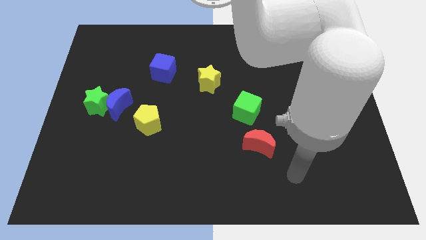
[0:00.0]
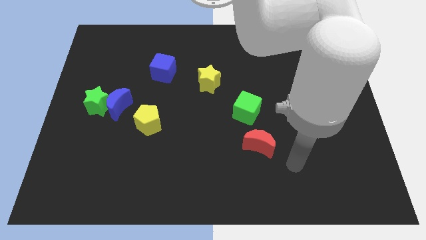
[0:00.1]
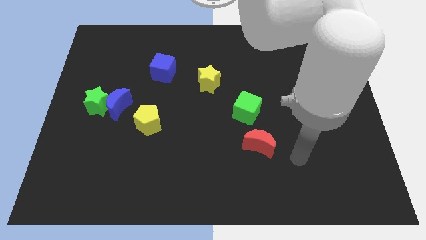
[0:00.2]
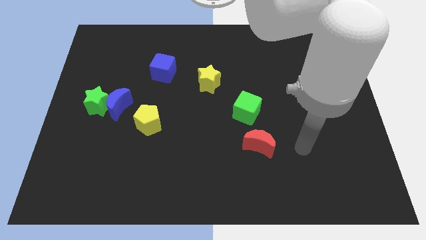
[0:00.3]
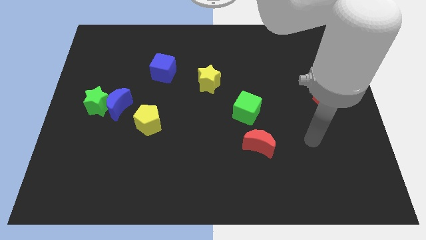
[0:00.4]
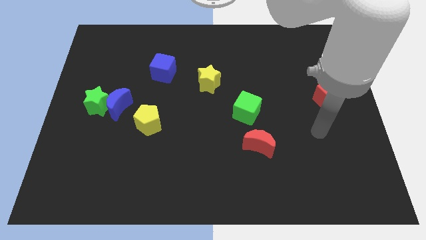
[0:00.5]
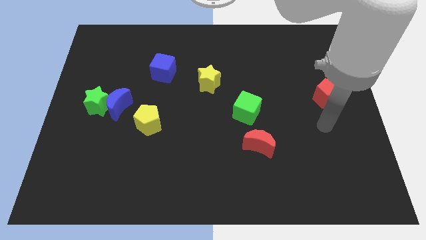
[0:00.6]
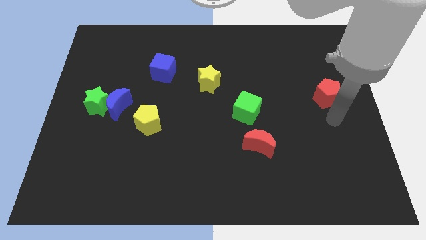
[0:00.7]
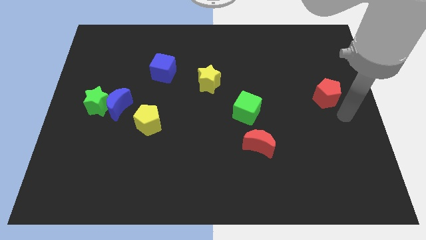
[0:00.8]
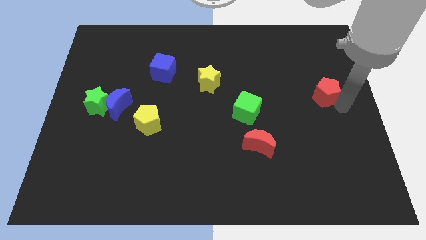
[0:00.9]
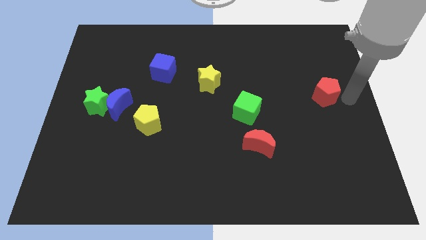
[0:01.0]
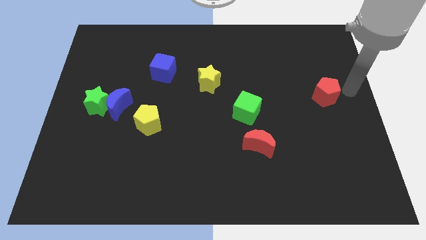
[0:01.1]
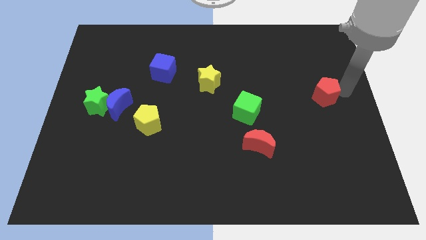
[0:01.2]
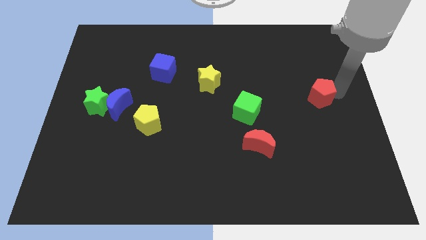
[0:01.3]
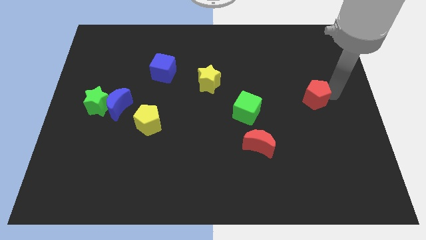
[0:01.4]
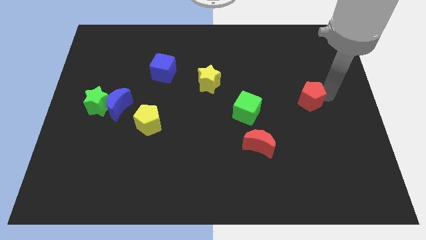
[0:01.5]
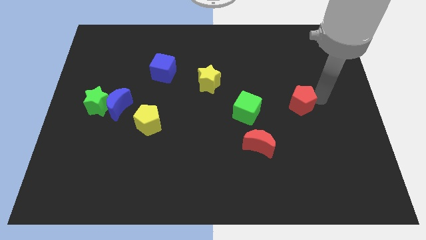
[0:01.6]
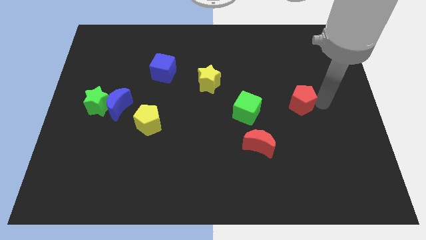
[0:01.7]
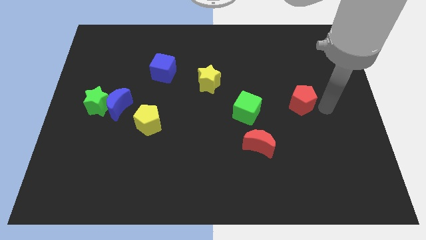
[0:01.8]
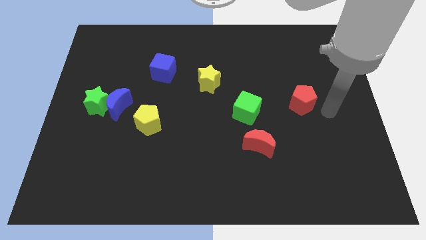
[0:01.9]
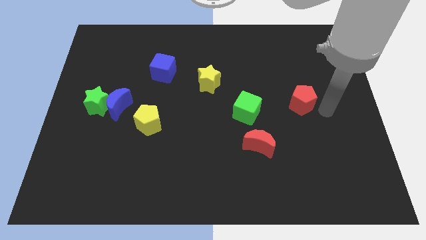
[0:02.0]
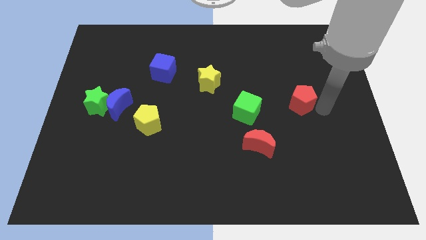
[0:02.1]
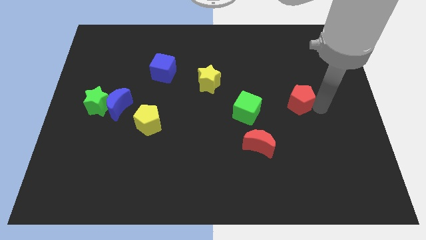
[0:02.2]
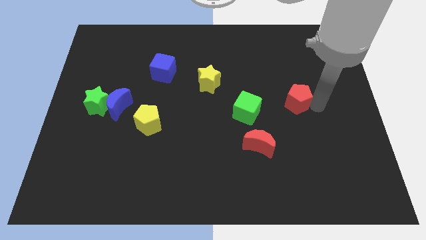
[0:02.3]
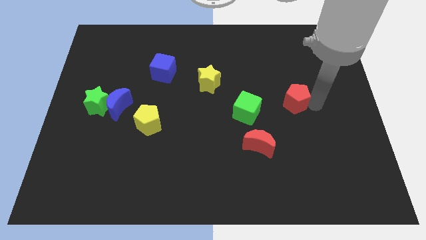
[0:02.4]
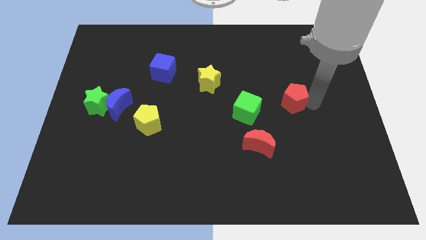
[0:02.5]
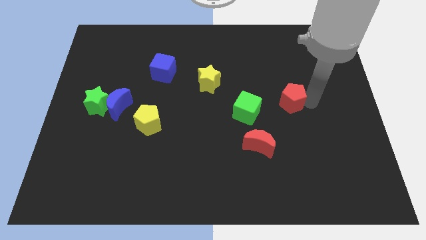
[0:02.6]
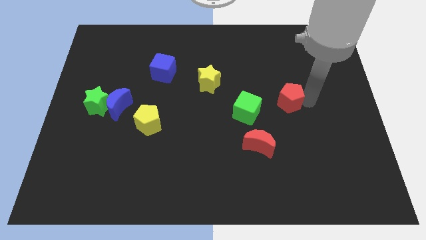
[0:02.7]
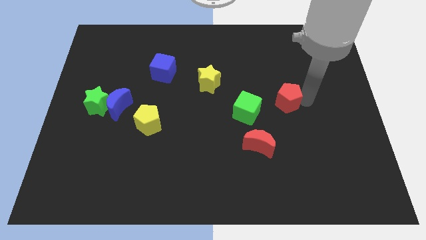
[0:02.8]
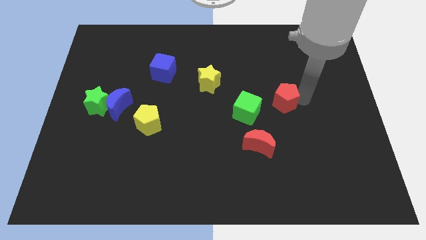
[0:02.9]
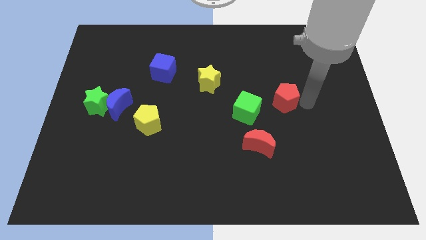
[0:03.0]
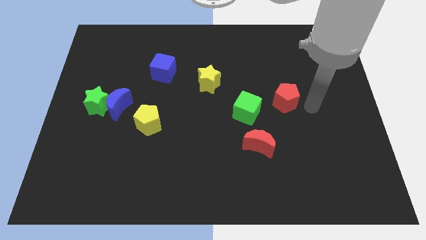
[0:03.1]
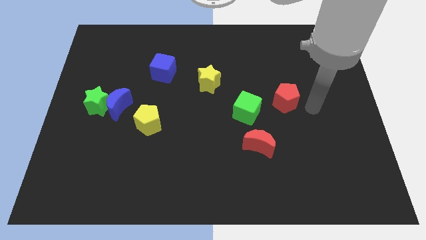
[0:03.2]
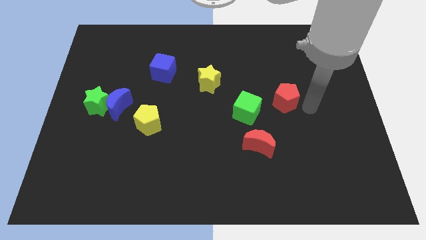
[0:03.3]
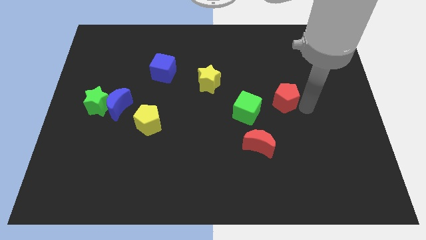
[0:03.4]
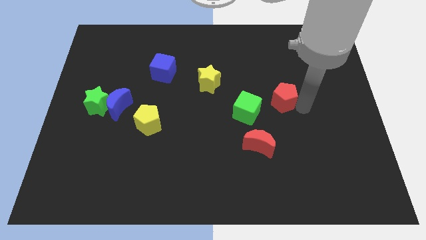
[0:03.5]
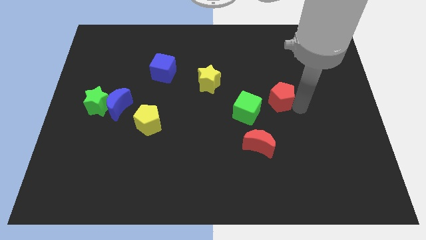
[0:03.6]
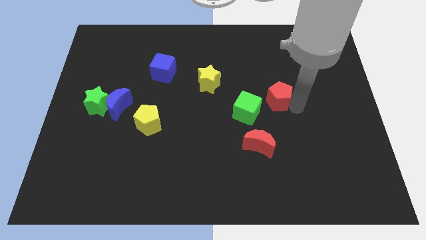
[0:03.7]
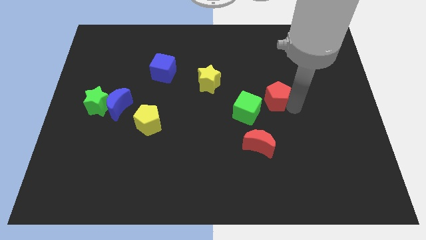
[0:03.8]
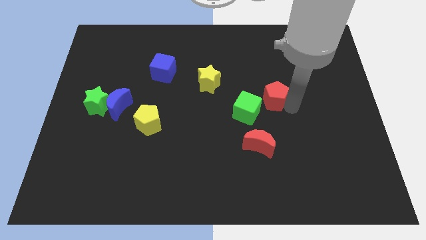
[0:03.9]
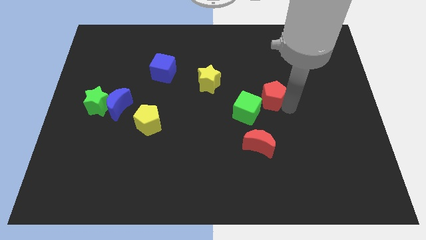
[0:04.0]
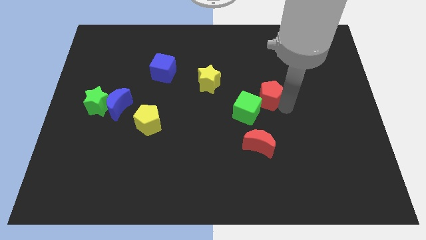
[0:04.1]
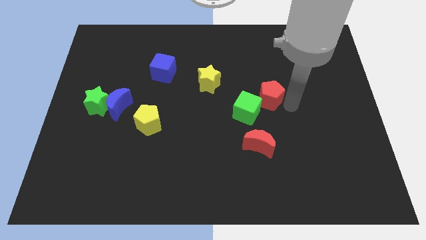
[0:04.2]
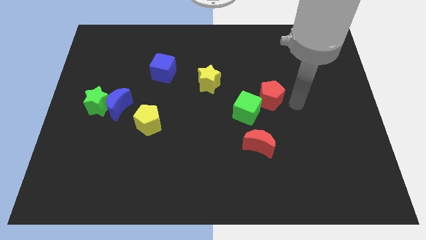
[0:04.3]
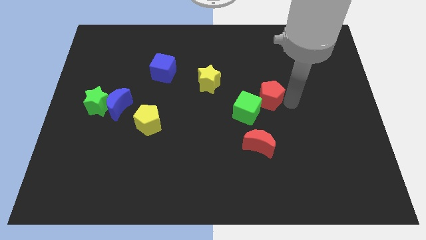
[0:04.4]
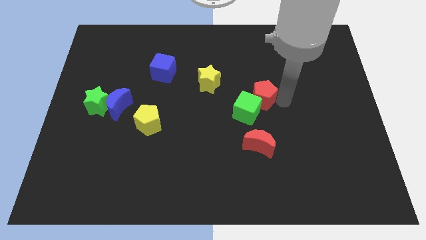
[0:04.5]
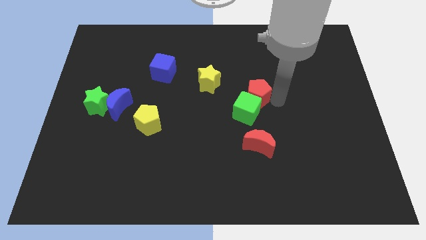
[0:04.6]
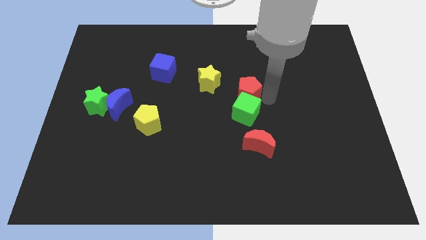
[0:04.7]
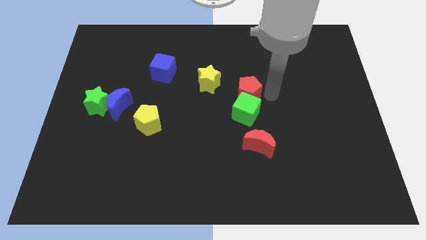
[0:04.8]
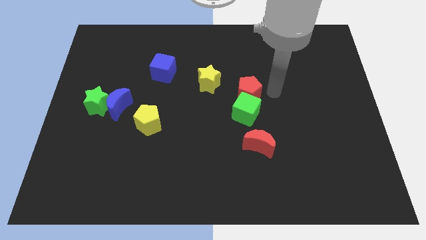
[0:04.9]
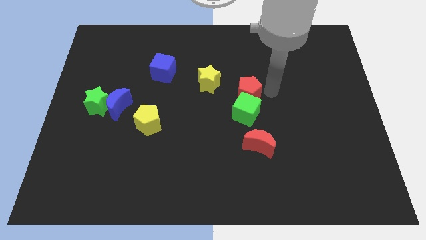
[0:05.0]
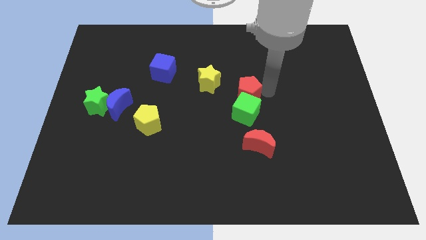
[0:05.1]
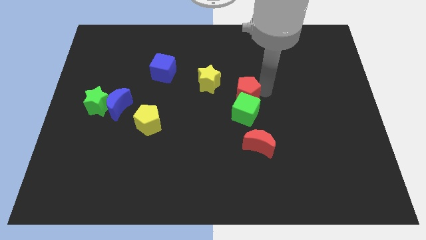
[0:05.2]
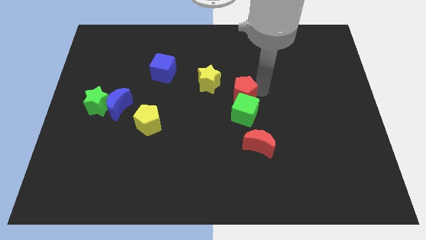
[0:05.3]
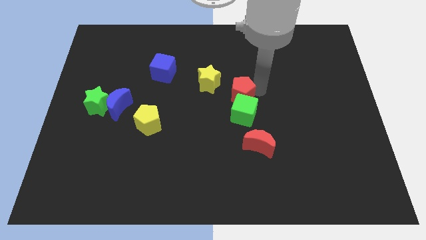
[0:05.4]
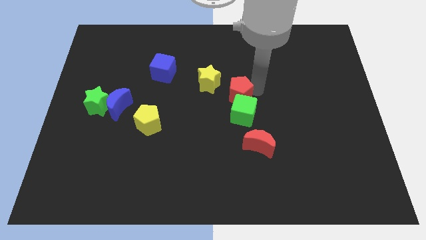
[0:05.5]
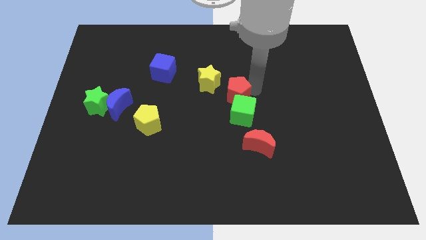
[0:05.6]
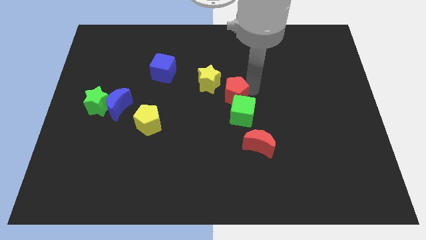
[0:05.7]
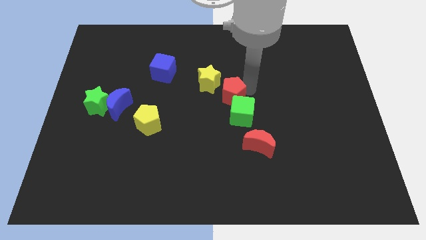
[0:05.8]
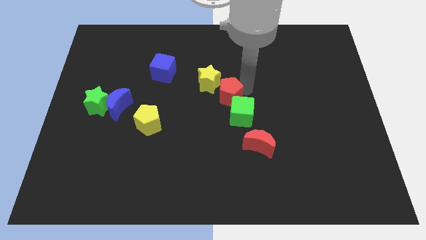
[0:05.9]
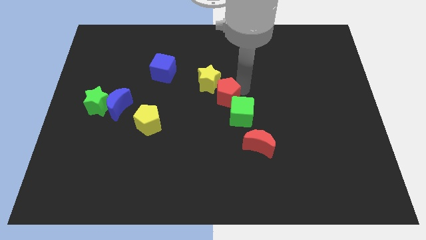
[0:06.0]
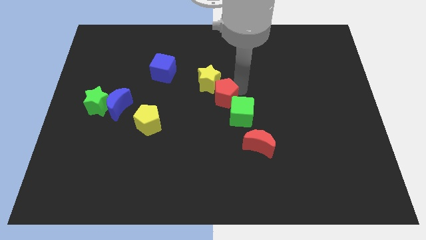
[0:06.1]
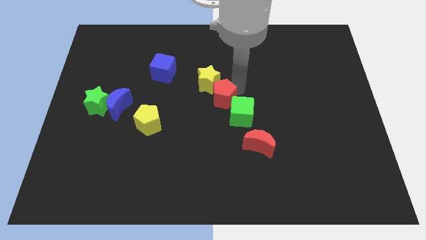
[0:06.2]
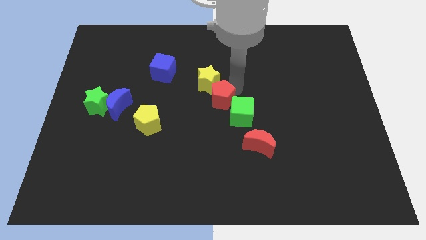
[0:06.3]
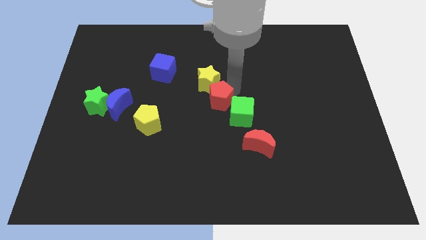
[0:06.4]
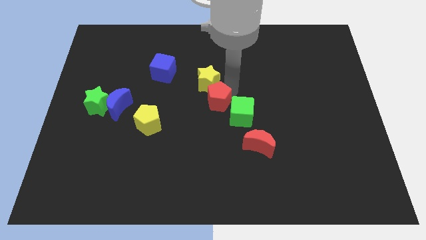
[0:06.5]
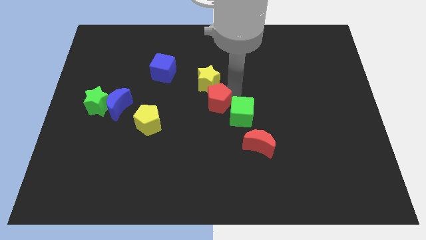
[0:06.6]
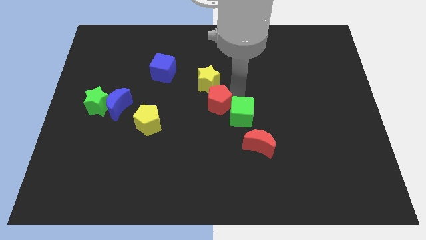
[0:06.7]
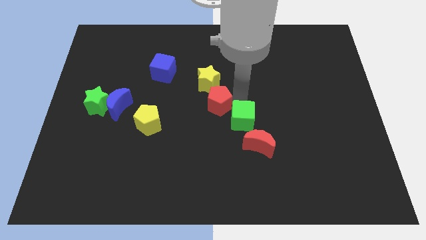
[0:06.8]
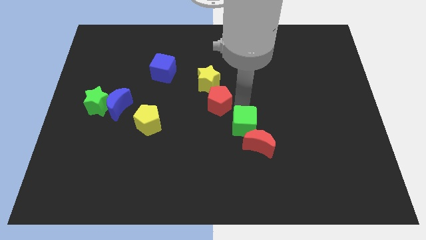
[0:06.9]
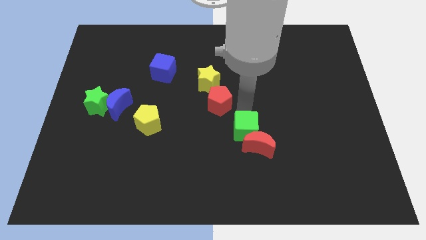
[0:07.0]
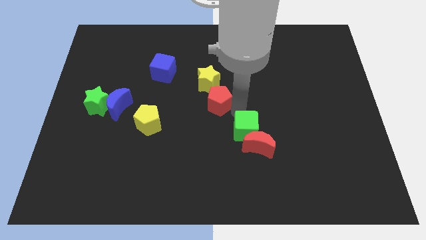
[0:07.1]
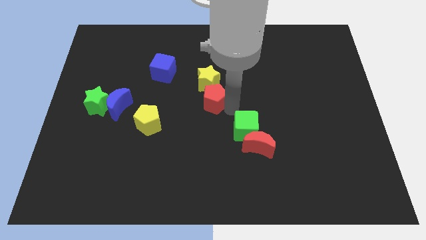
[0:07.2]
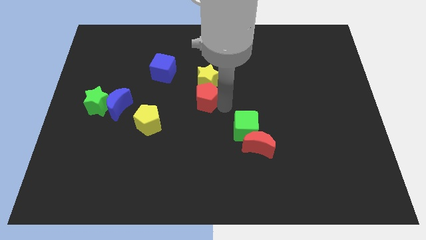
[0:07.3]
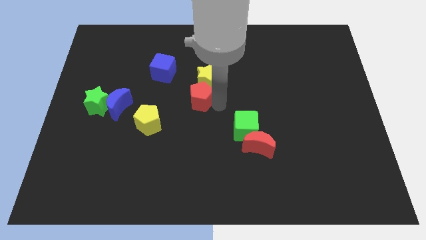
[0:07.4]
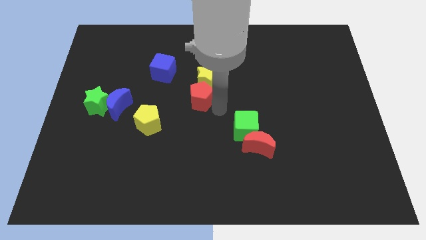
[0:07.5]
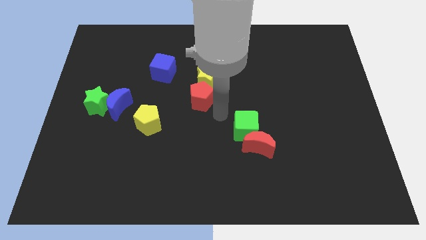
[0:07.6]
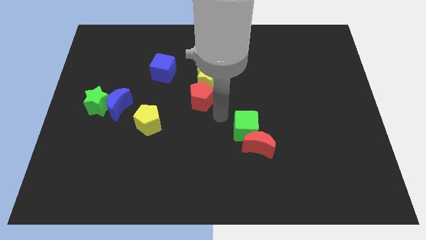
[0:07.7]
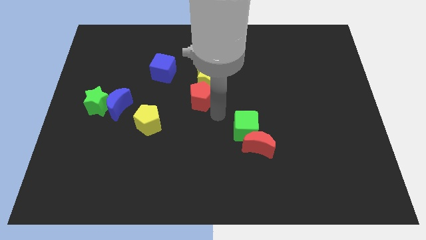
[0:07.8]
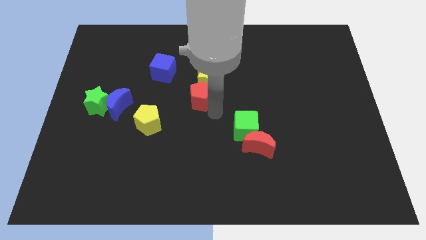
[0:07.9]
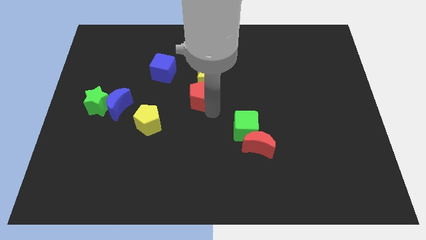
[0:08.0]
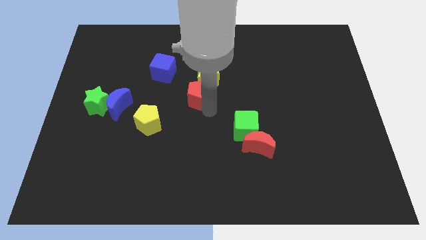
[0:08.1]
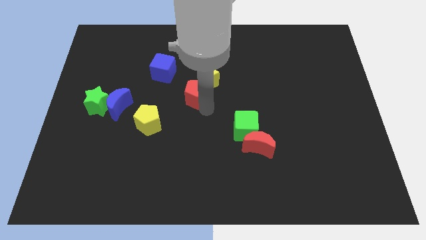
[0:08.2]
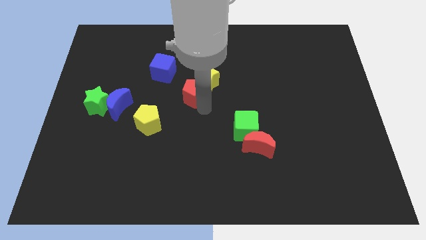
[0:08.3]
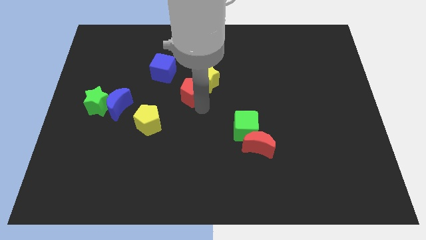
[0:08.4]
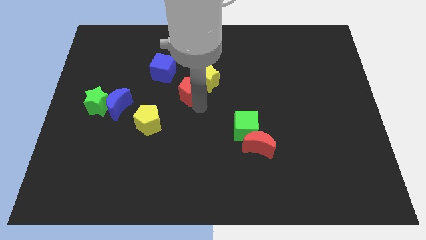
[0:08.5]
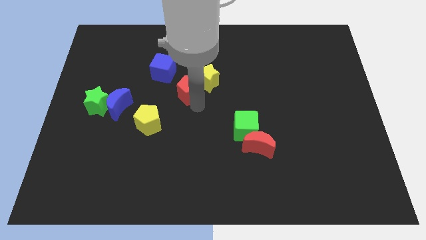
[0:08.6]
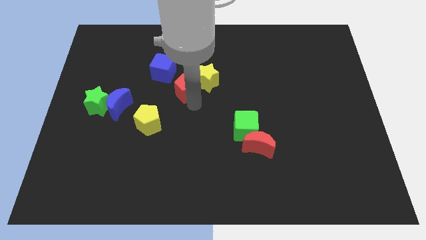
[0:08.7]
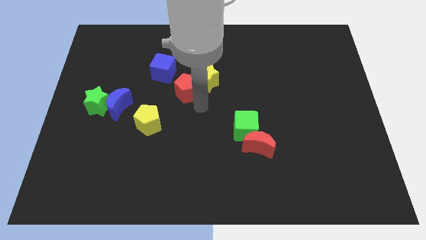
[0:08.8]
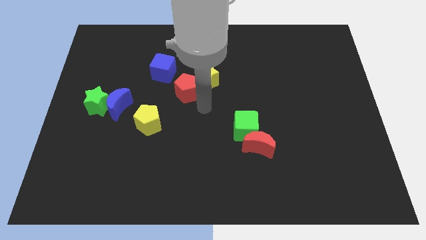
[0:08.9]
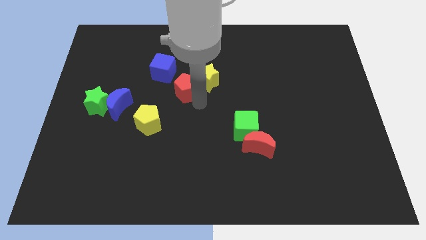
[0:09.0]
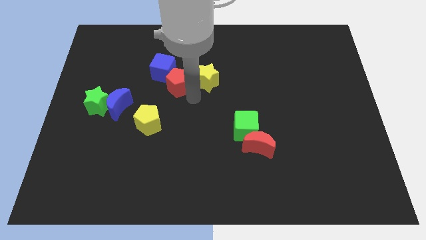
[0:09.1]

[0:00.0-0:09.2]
slide the red pentagon close to the blue cube
